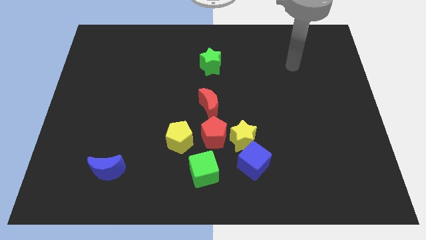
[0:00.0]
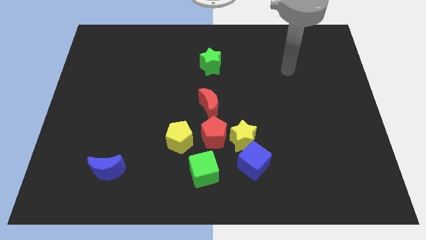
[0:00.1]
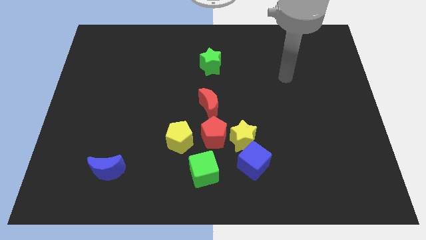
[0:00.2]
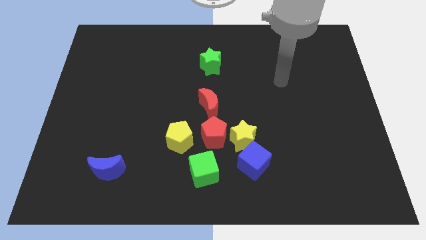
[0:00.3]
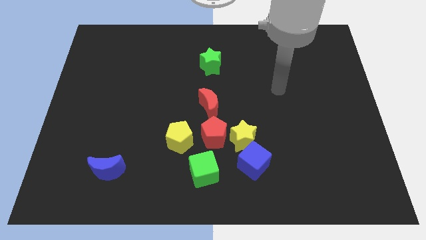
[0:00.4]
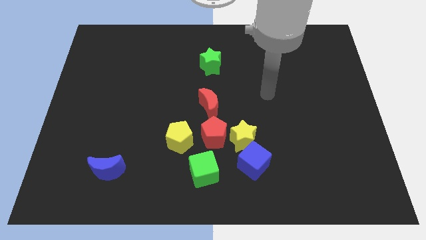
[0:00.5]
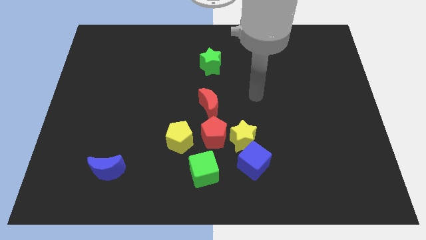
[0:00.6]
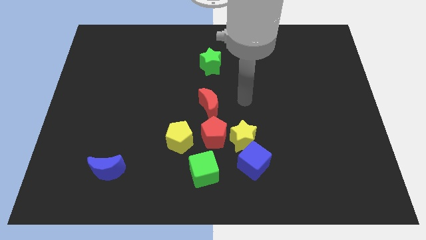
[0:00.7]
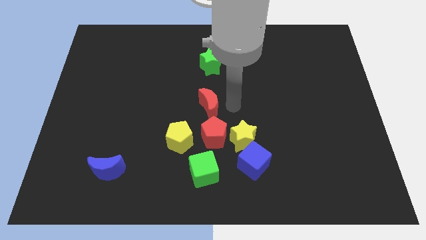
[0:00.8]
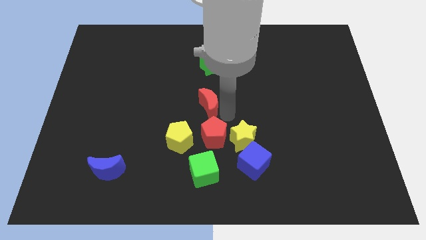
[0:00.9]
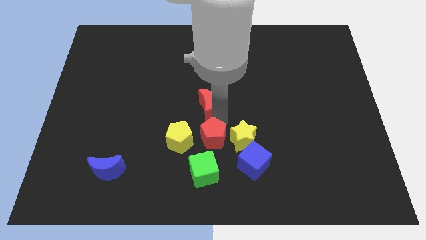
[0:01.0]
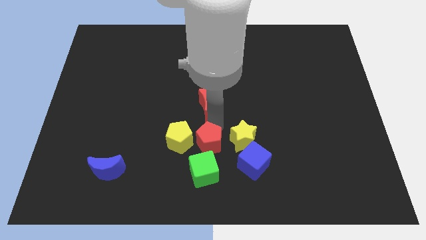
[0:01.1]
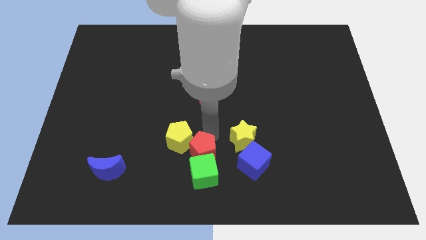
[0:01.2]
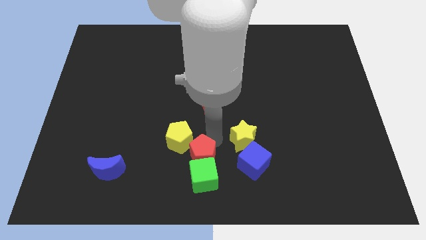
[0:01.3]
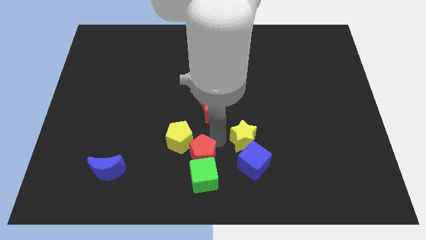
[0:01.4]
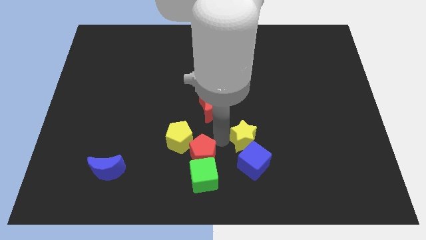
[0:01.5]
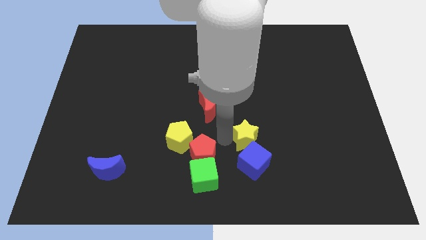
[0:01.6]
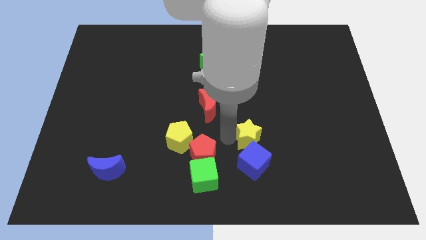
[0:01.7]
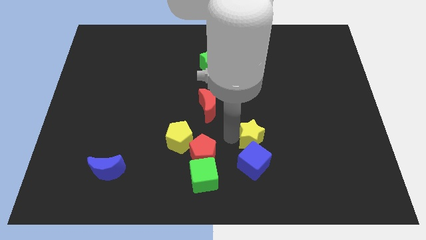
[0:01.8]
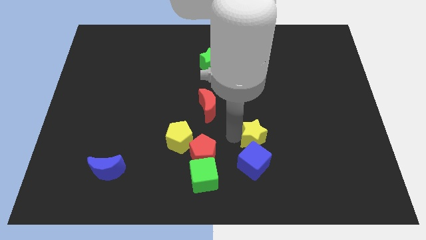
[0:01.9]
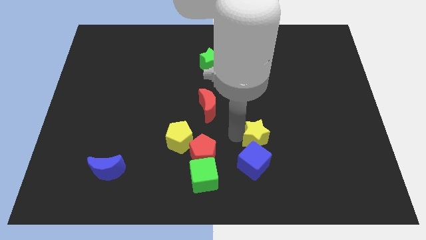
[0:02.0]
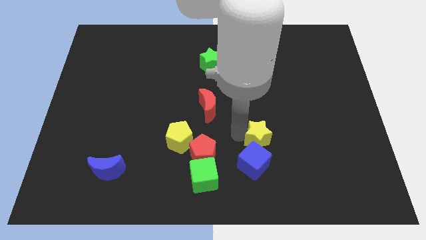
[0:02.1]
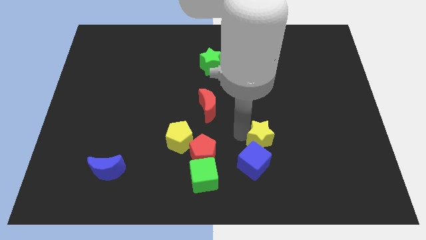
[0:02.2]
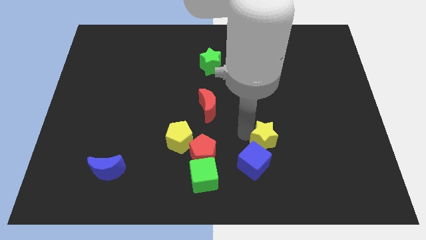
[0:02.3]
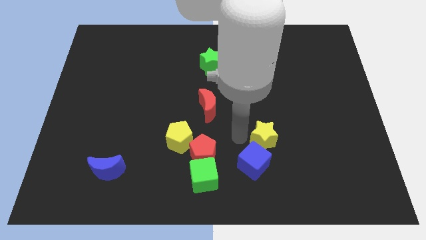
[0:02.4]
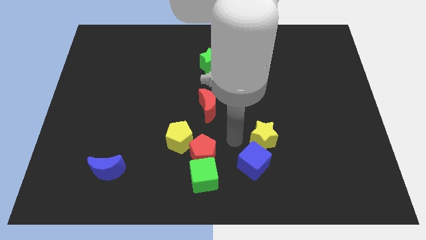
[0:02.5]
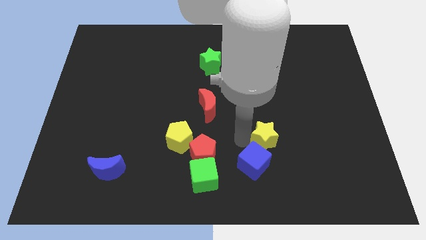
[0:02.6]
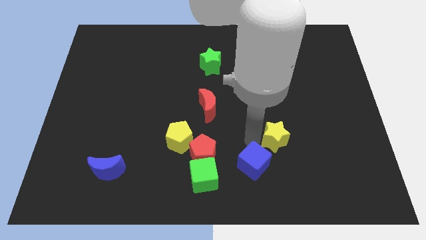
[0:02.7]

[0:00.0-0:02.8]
push the yellow star a little bit right

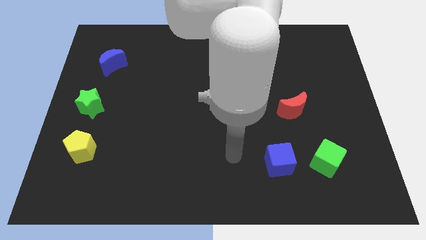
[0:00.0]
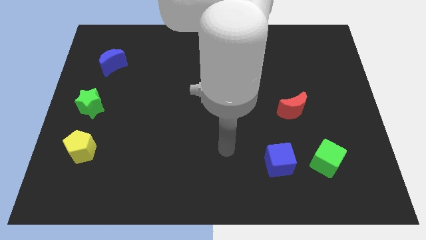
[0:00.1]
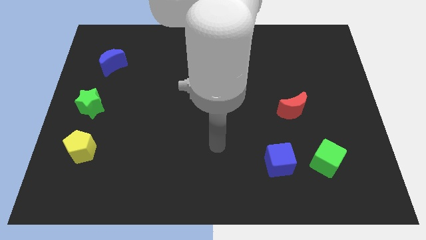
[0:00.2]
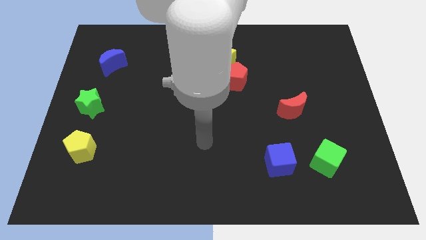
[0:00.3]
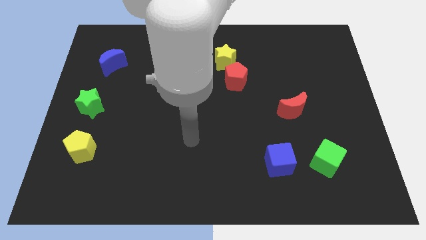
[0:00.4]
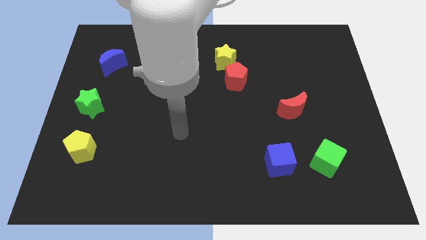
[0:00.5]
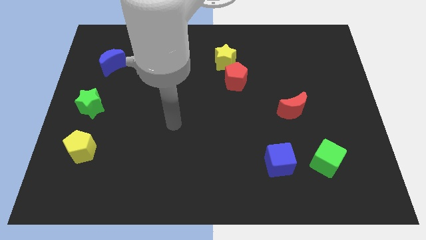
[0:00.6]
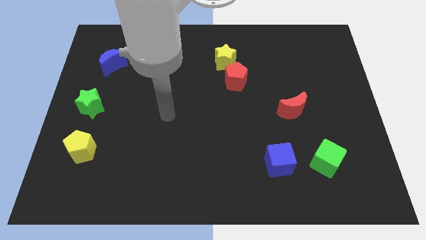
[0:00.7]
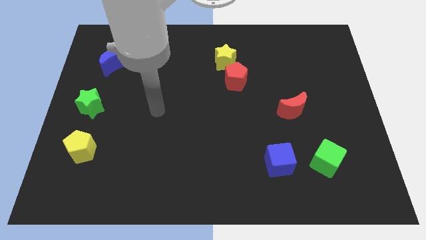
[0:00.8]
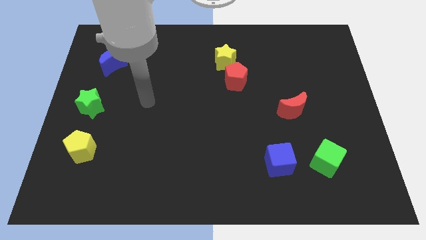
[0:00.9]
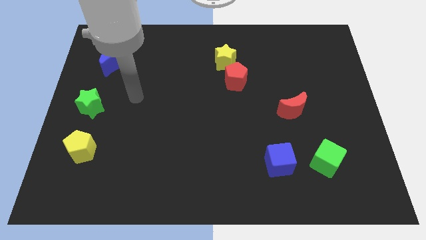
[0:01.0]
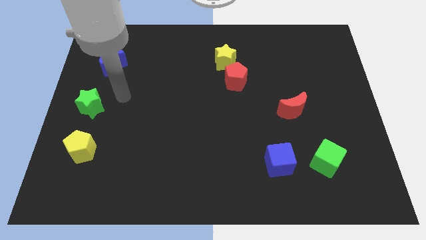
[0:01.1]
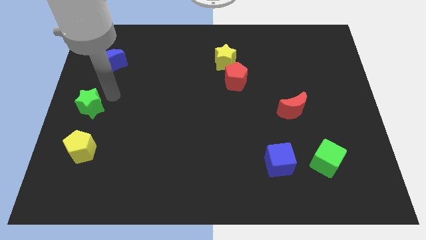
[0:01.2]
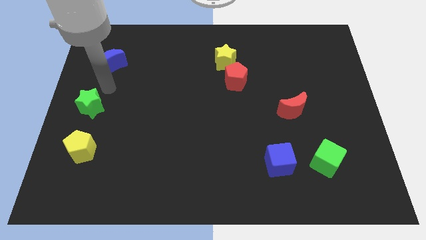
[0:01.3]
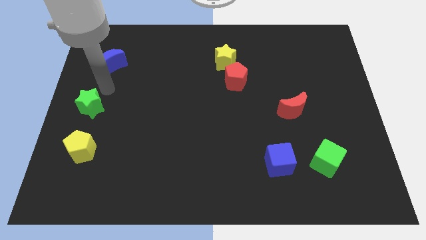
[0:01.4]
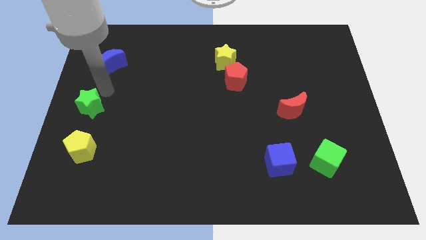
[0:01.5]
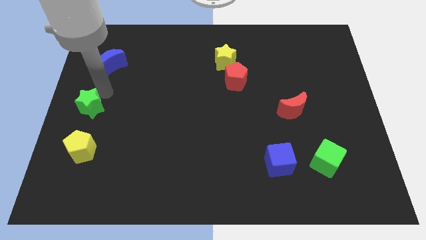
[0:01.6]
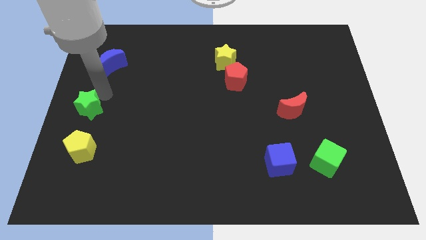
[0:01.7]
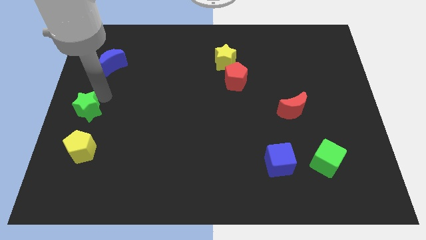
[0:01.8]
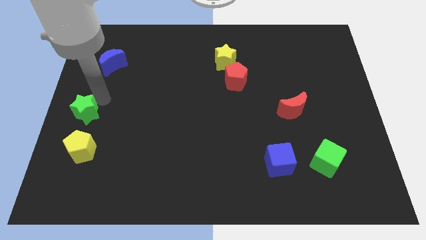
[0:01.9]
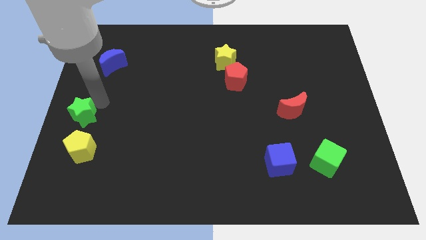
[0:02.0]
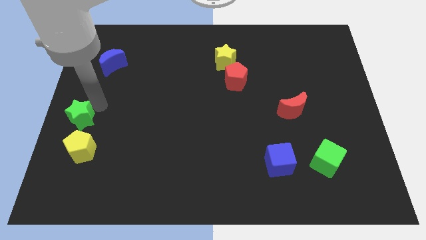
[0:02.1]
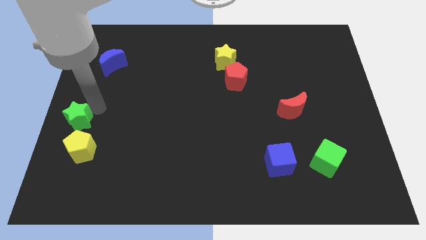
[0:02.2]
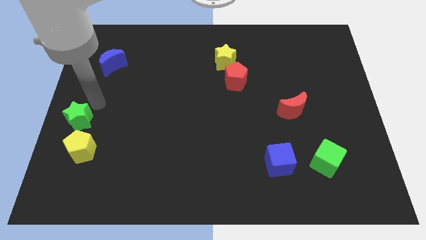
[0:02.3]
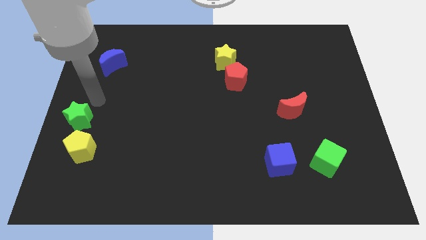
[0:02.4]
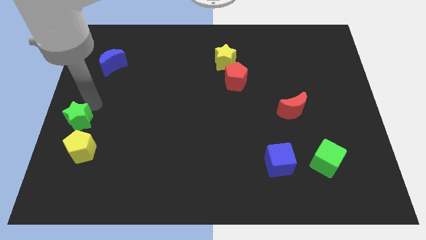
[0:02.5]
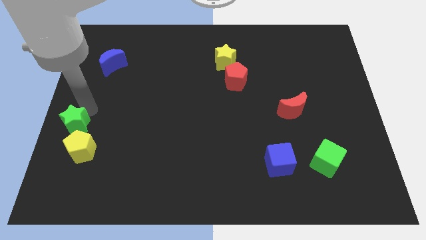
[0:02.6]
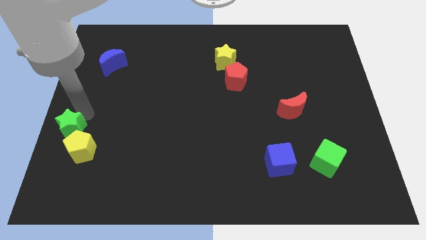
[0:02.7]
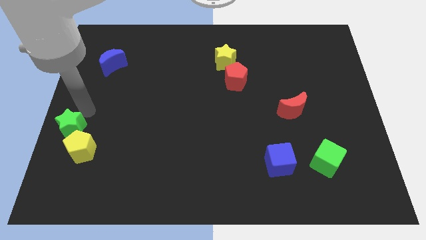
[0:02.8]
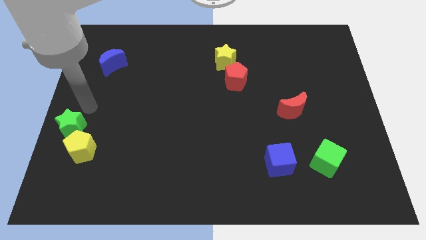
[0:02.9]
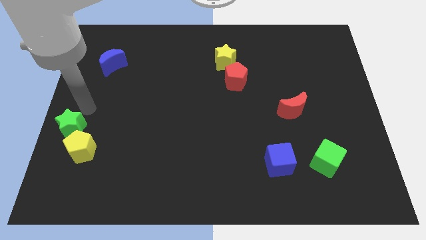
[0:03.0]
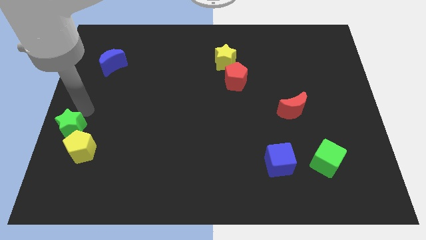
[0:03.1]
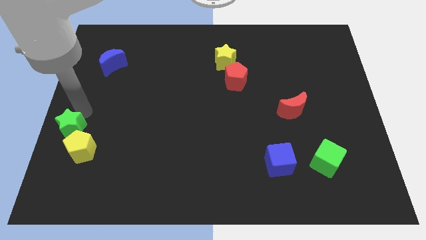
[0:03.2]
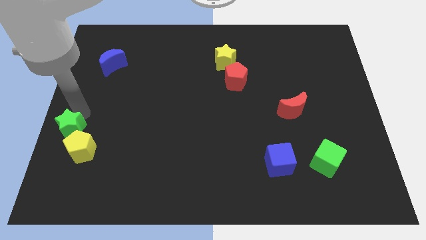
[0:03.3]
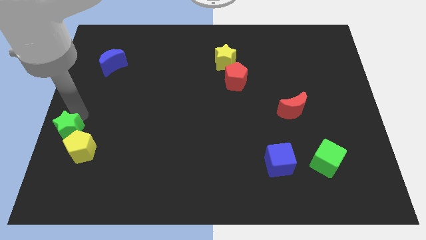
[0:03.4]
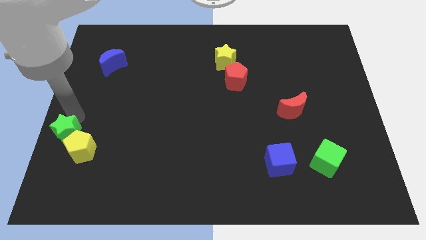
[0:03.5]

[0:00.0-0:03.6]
slightly move the green star downwards

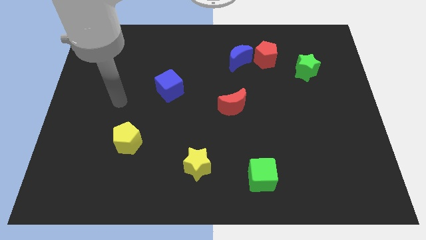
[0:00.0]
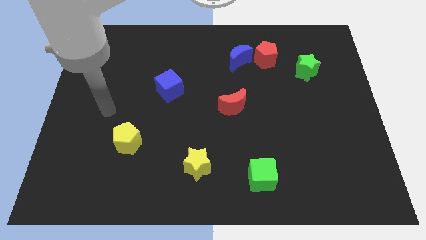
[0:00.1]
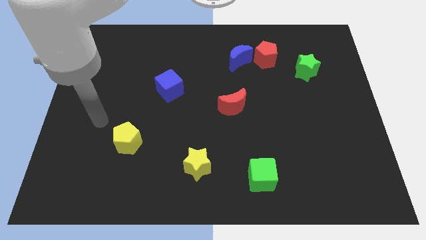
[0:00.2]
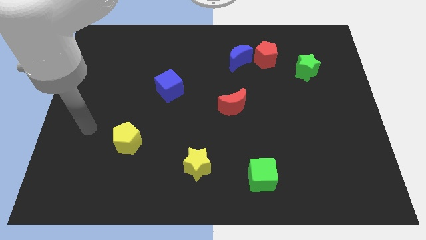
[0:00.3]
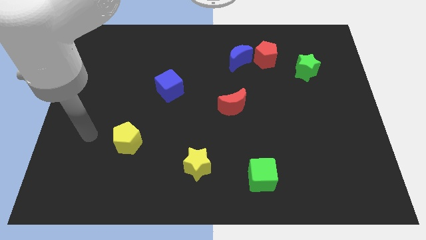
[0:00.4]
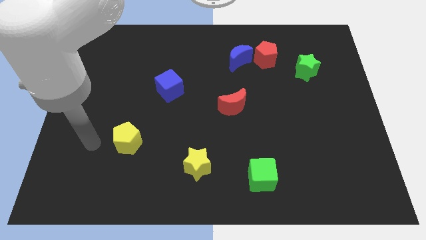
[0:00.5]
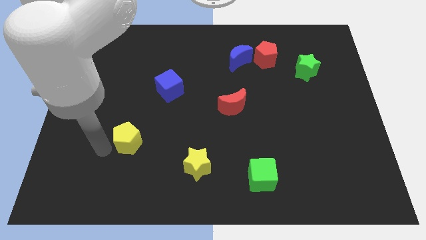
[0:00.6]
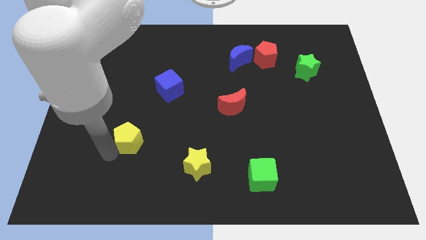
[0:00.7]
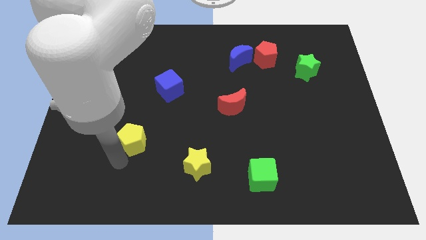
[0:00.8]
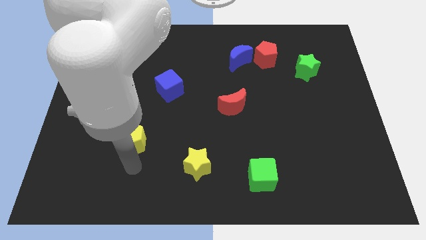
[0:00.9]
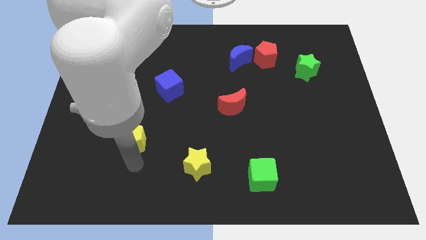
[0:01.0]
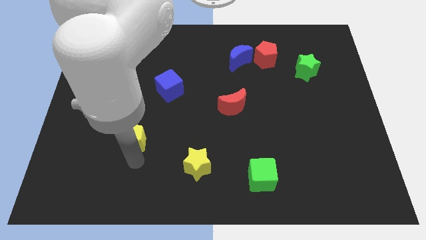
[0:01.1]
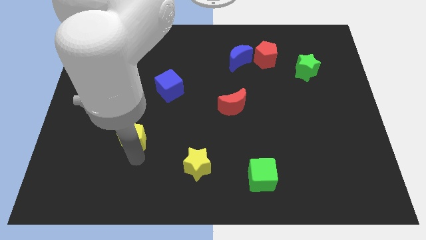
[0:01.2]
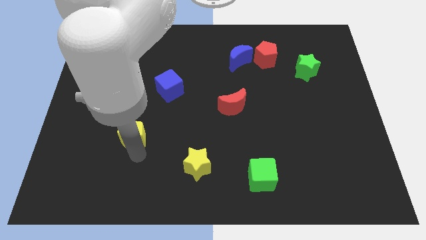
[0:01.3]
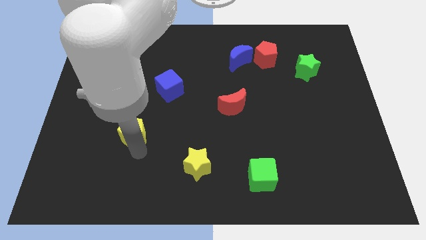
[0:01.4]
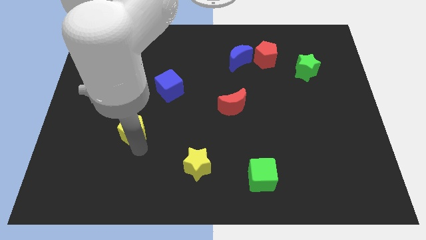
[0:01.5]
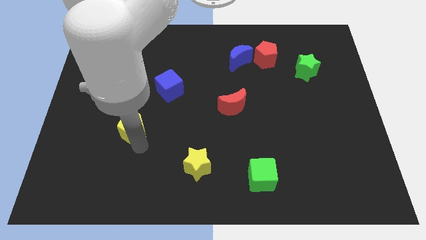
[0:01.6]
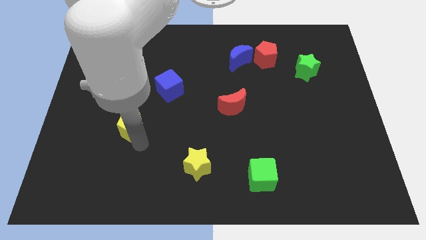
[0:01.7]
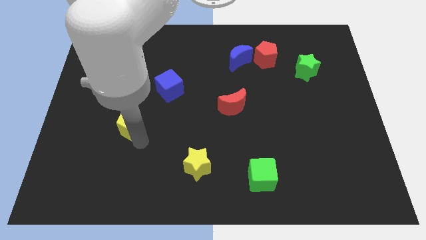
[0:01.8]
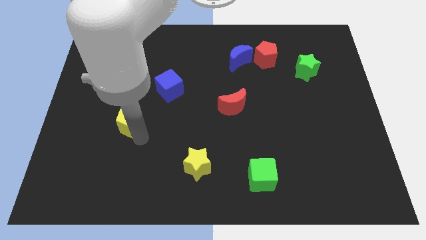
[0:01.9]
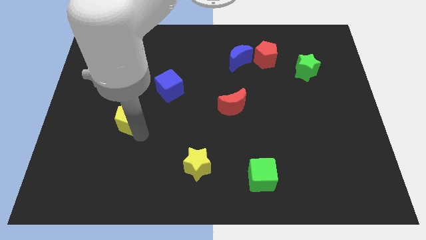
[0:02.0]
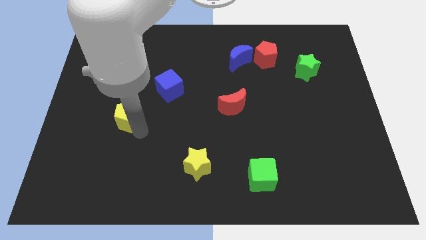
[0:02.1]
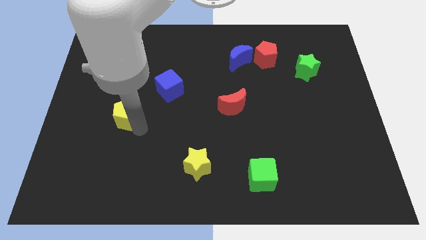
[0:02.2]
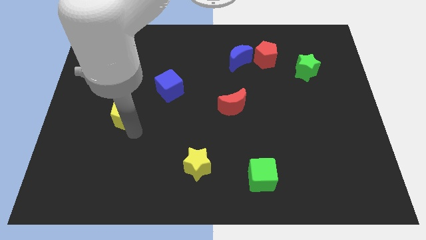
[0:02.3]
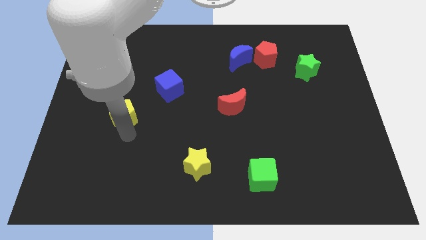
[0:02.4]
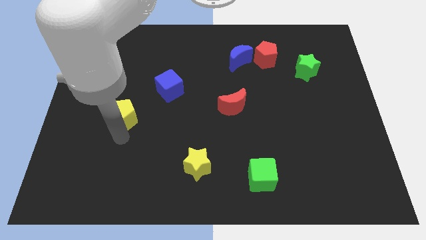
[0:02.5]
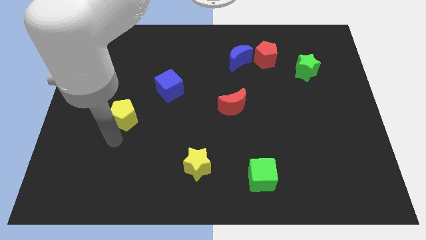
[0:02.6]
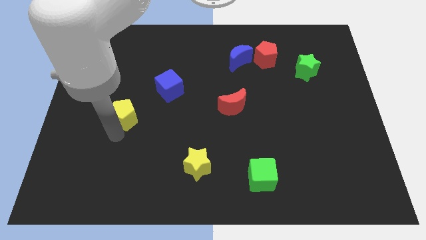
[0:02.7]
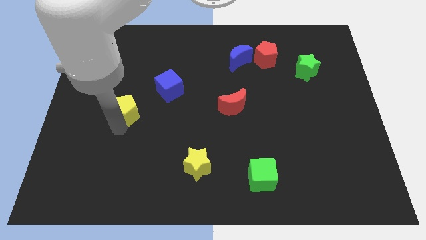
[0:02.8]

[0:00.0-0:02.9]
move the yellow pentagon upwards a little bit
